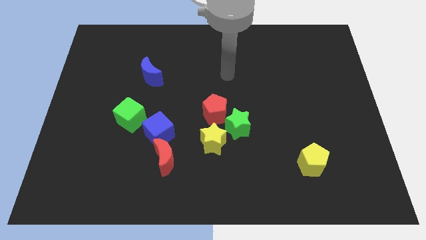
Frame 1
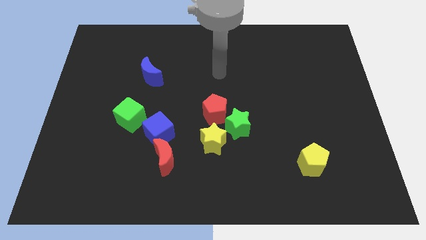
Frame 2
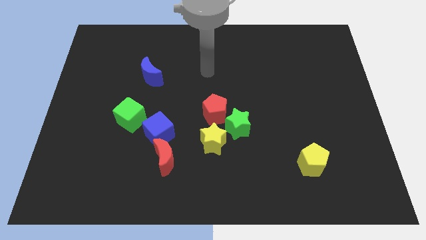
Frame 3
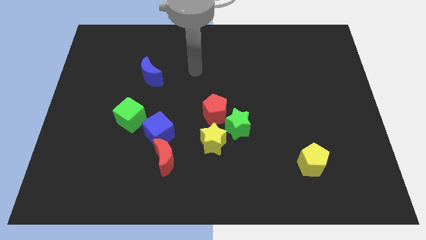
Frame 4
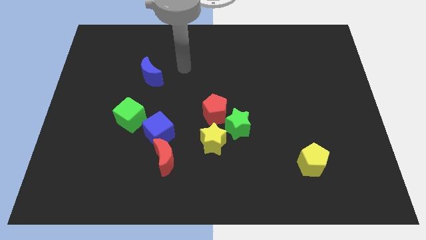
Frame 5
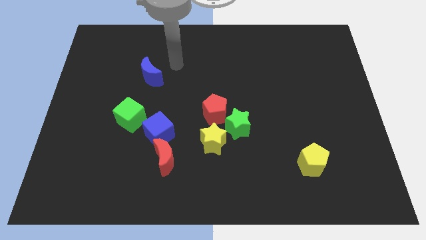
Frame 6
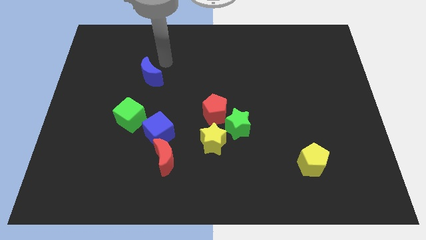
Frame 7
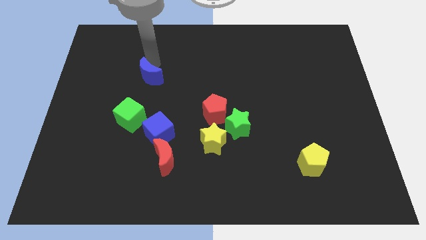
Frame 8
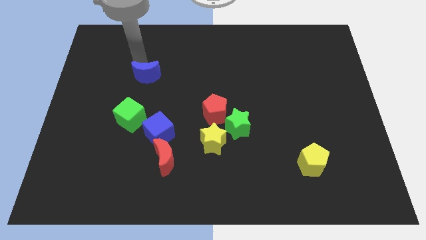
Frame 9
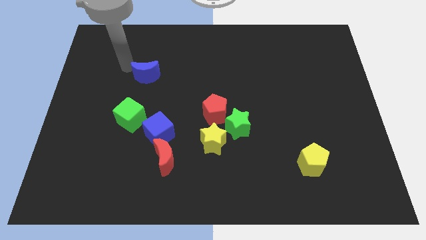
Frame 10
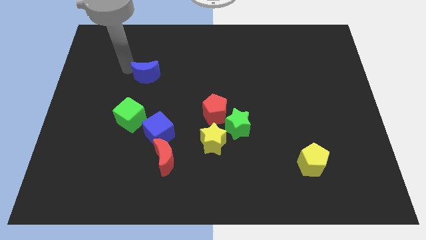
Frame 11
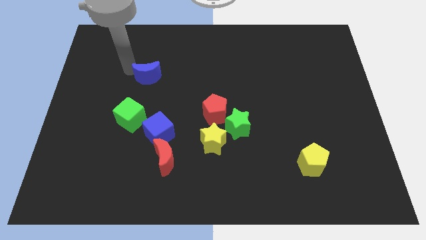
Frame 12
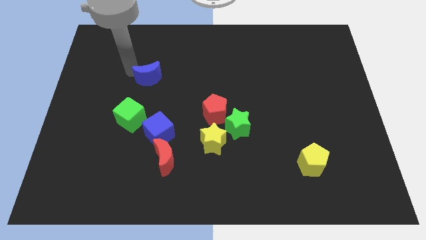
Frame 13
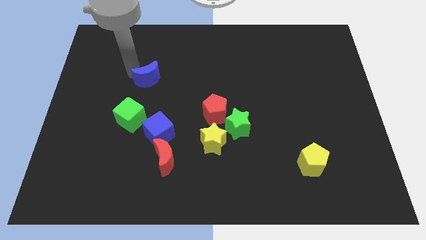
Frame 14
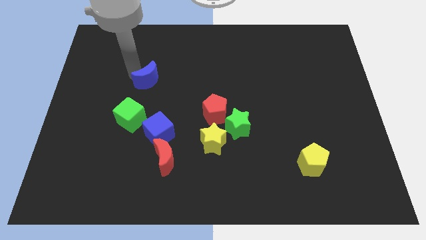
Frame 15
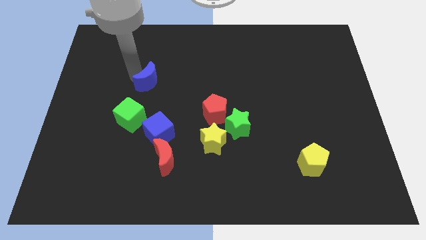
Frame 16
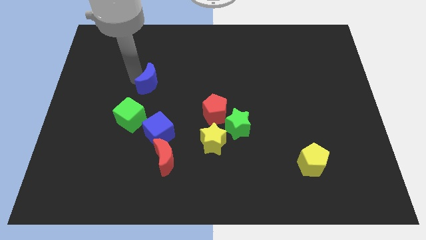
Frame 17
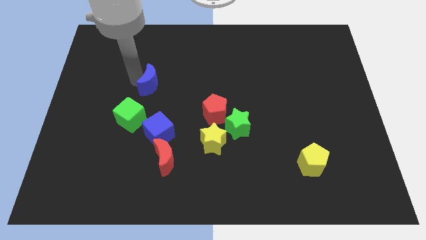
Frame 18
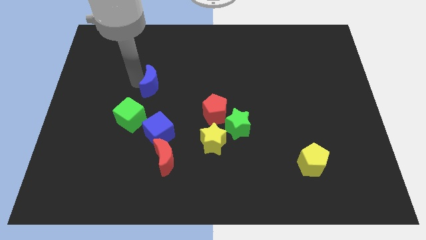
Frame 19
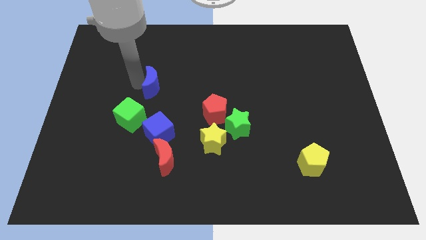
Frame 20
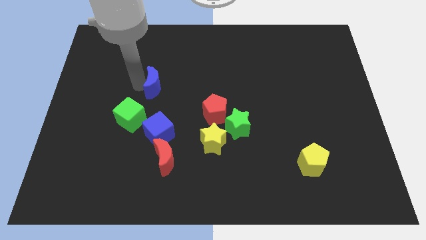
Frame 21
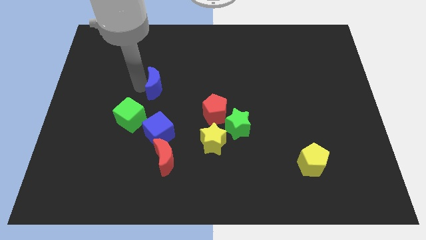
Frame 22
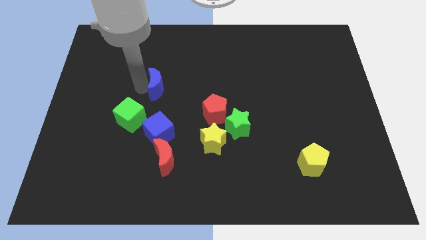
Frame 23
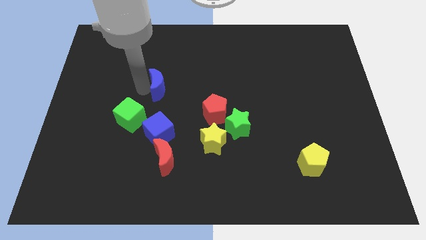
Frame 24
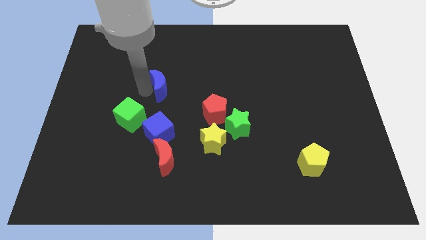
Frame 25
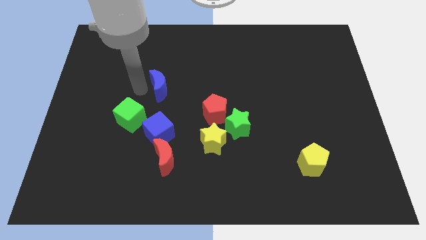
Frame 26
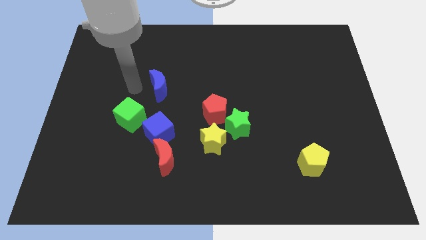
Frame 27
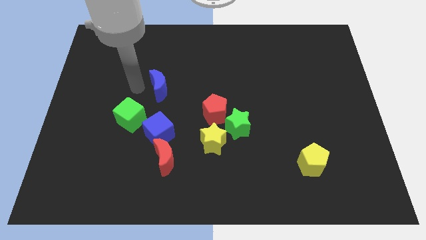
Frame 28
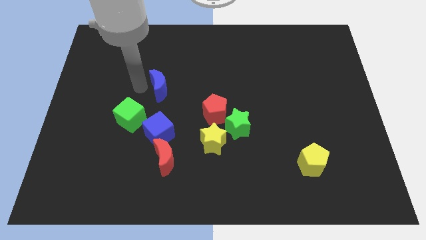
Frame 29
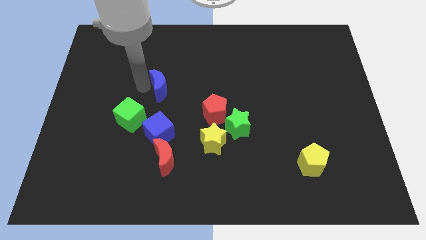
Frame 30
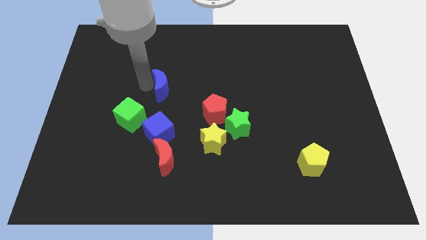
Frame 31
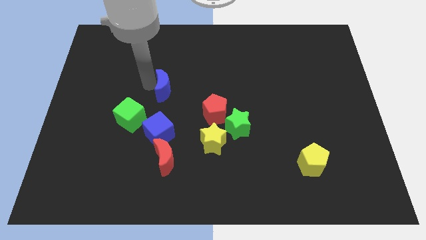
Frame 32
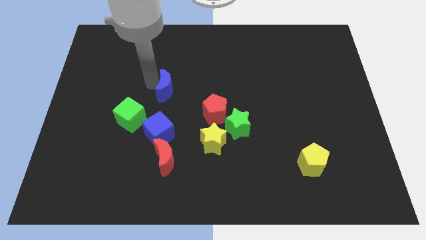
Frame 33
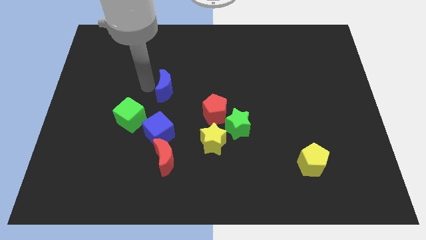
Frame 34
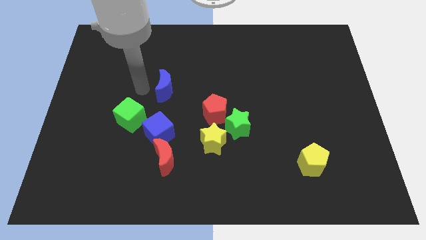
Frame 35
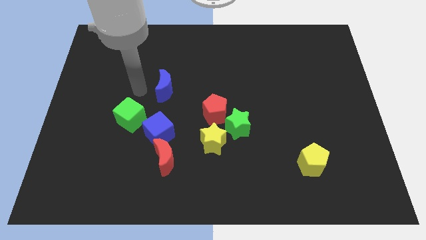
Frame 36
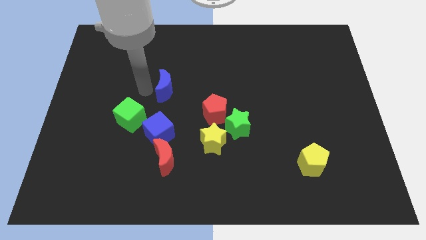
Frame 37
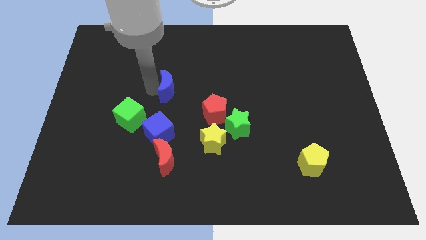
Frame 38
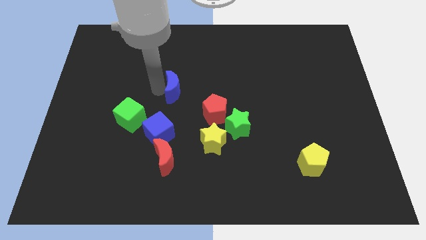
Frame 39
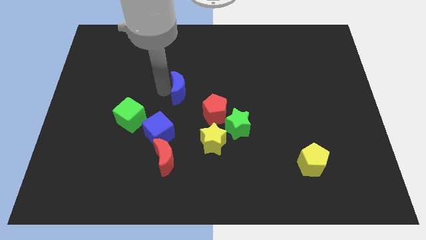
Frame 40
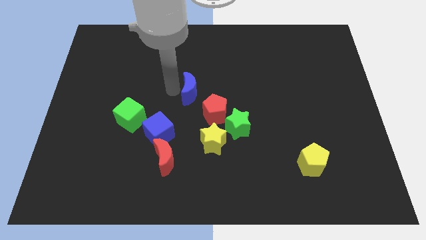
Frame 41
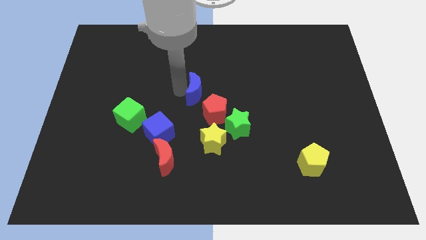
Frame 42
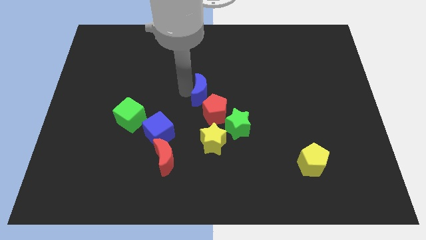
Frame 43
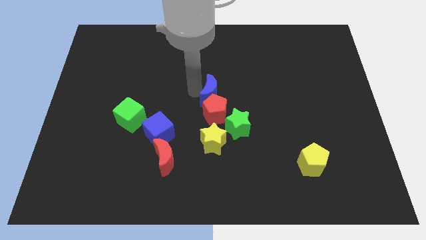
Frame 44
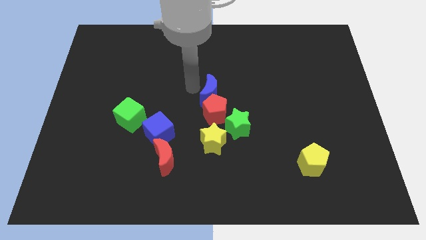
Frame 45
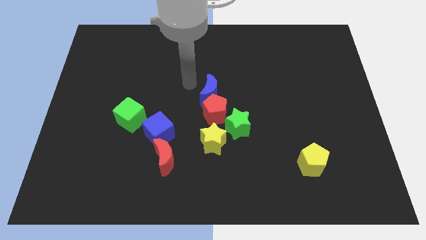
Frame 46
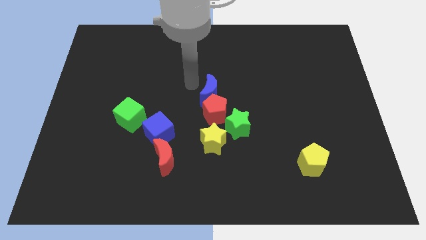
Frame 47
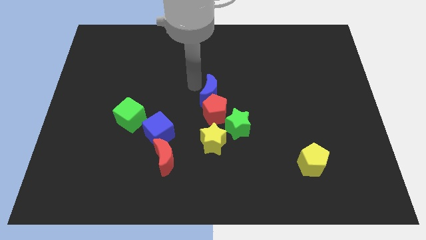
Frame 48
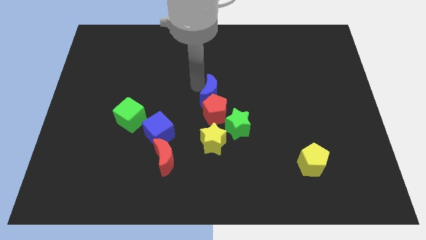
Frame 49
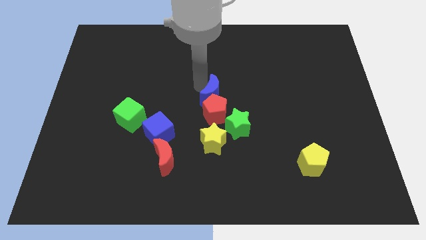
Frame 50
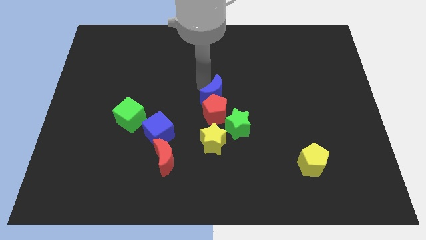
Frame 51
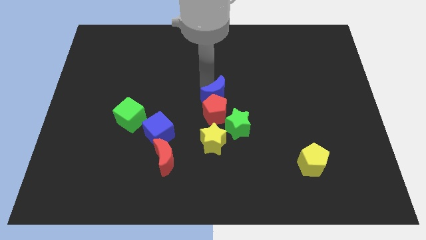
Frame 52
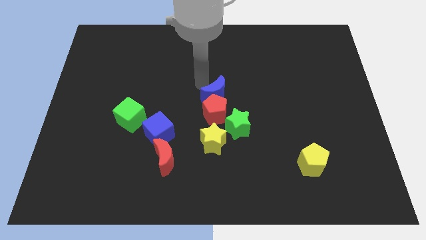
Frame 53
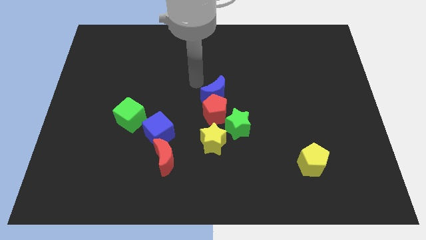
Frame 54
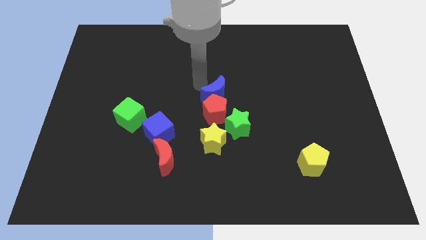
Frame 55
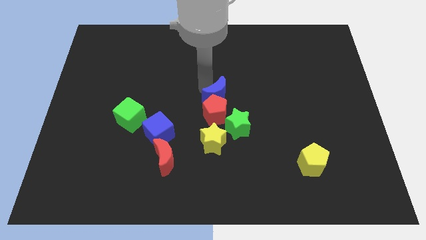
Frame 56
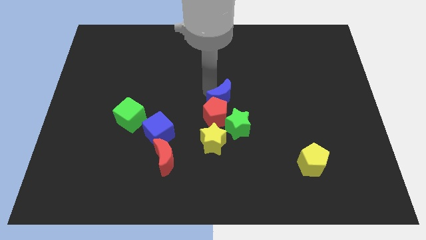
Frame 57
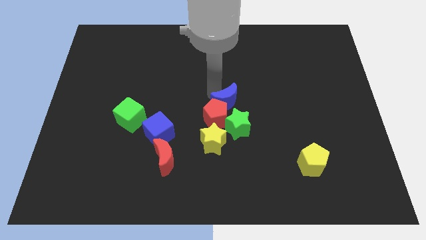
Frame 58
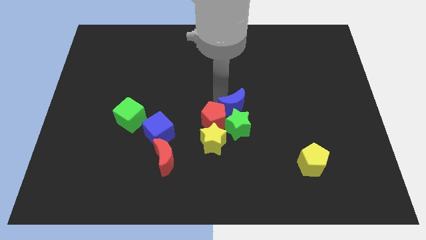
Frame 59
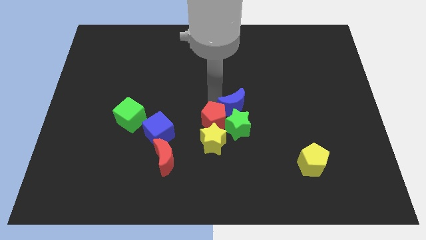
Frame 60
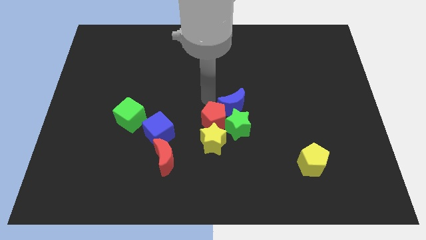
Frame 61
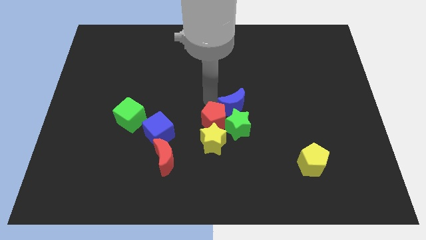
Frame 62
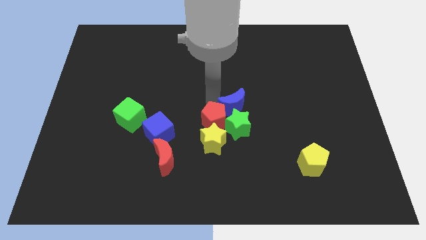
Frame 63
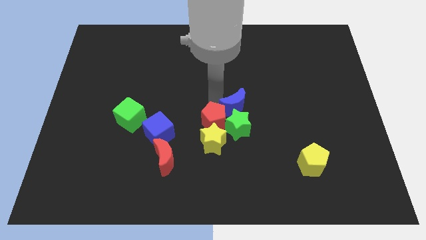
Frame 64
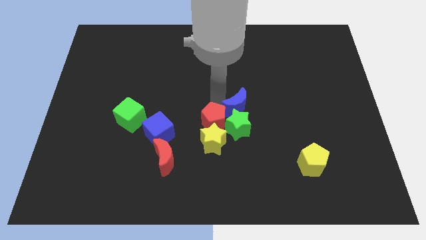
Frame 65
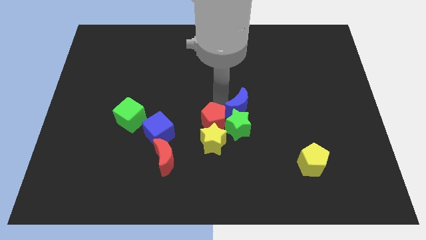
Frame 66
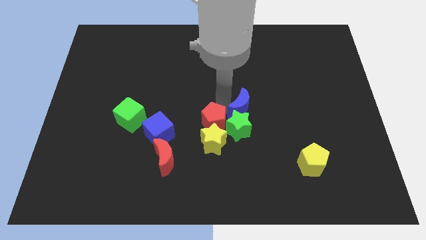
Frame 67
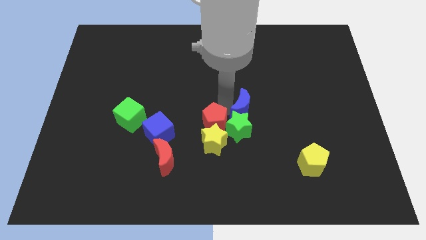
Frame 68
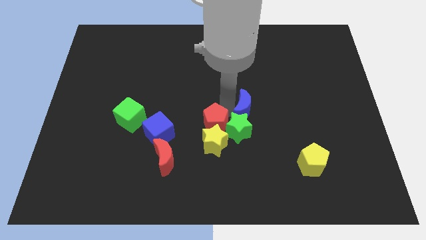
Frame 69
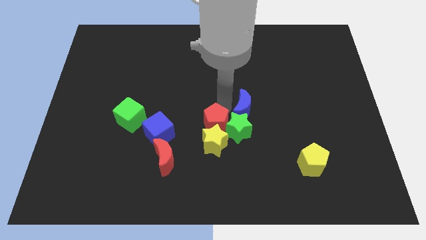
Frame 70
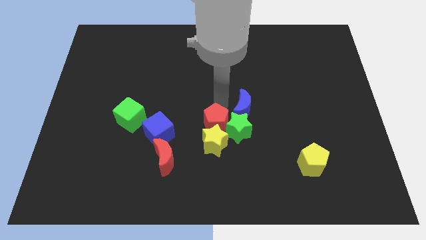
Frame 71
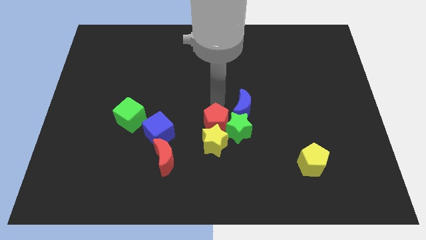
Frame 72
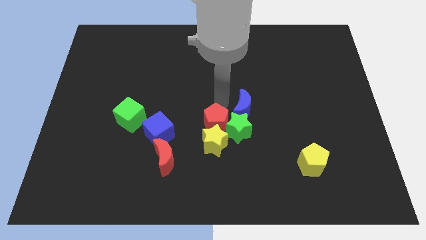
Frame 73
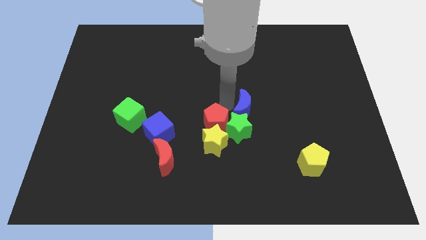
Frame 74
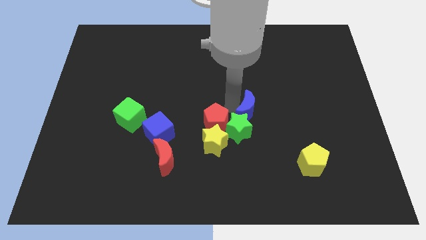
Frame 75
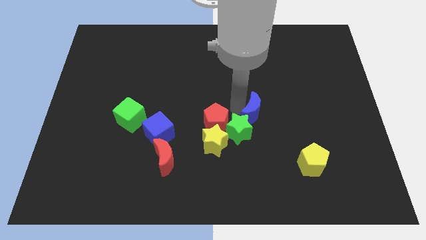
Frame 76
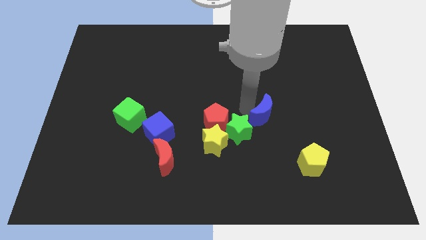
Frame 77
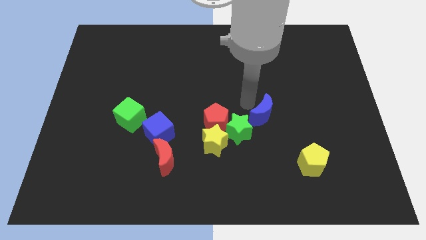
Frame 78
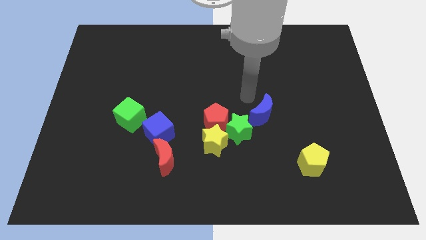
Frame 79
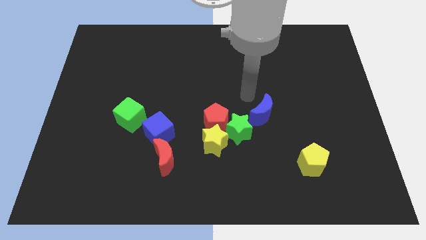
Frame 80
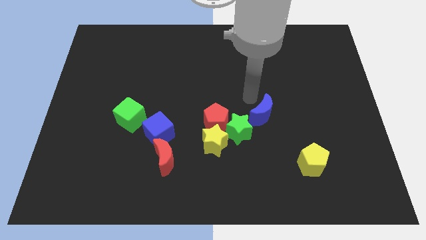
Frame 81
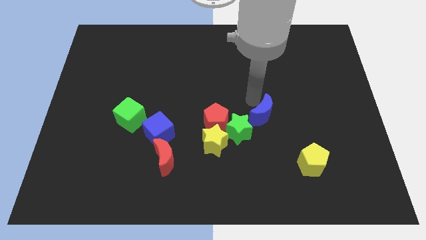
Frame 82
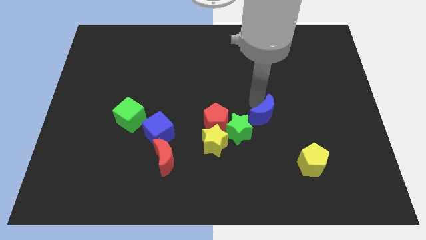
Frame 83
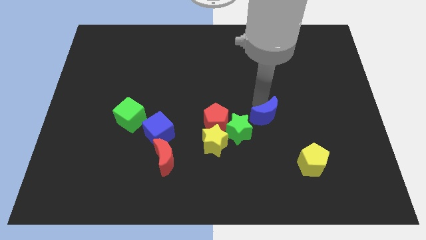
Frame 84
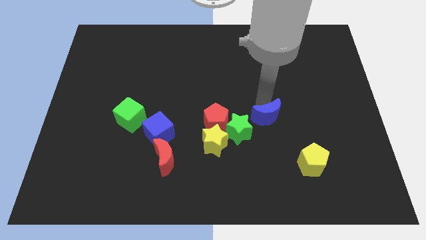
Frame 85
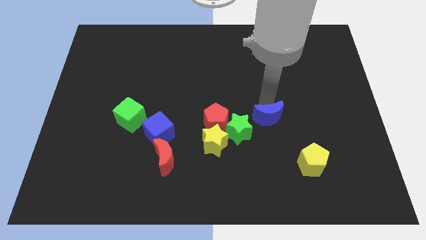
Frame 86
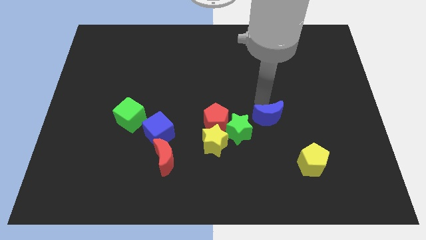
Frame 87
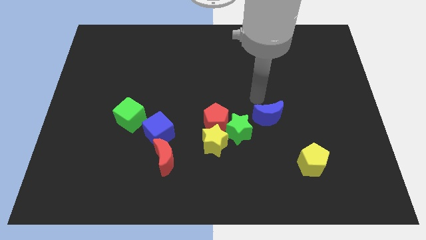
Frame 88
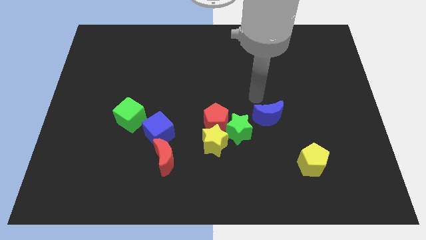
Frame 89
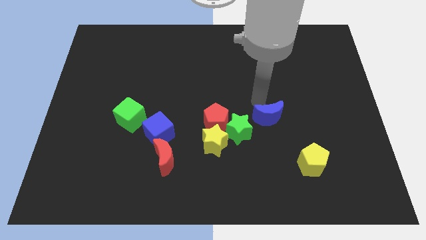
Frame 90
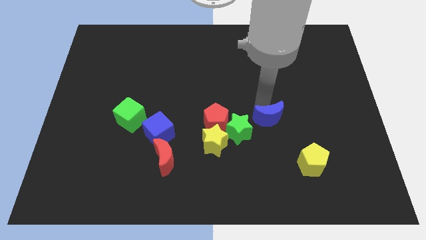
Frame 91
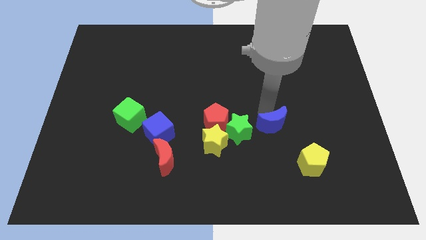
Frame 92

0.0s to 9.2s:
slide the blue moon to the top left side of the yellow pentagon
